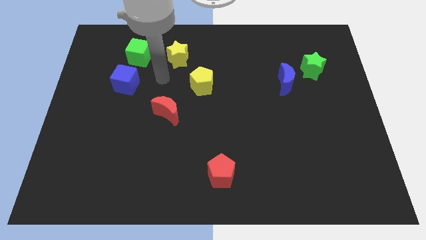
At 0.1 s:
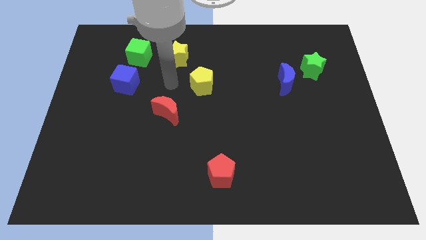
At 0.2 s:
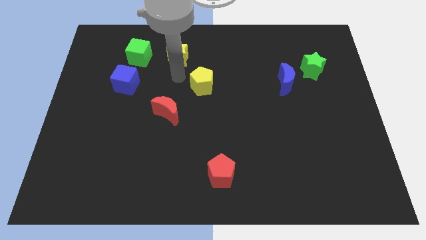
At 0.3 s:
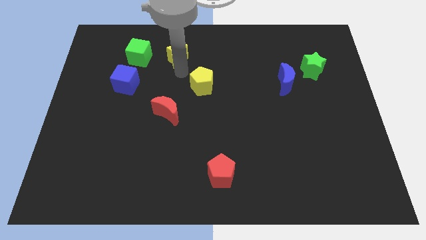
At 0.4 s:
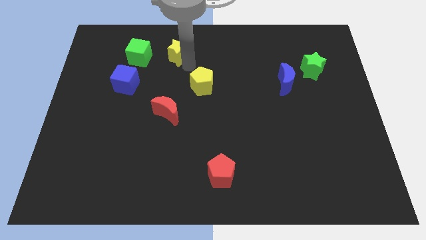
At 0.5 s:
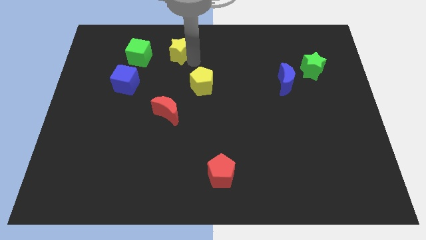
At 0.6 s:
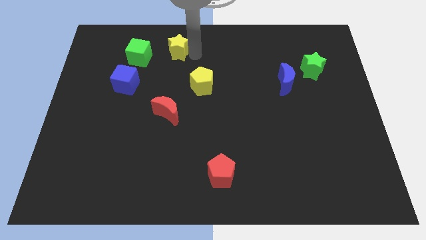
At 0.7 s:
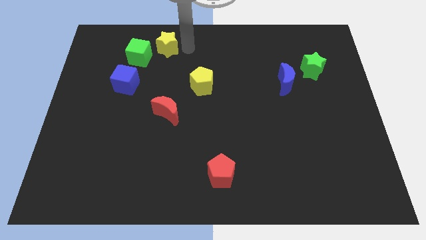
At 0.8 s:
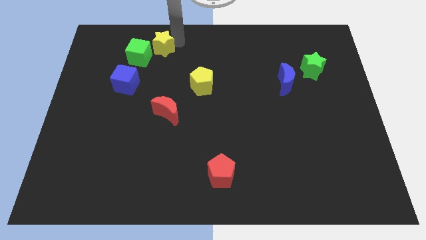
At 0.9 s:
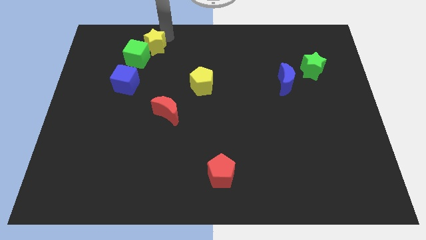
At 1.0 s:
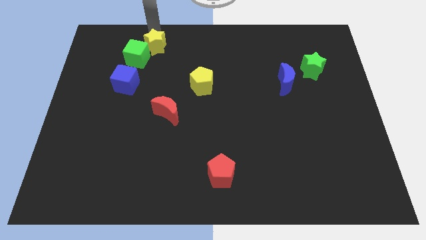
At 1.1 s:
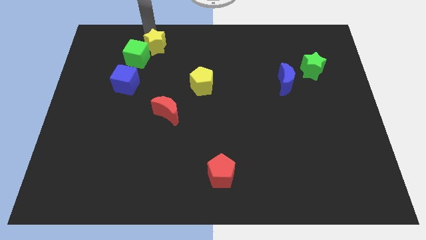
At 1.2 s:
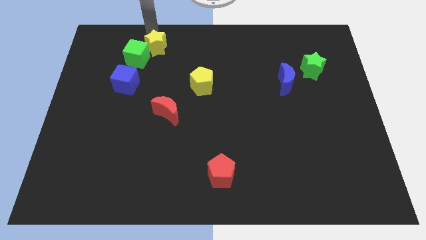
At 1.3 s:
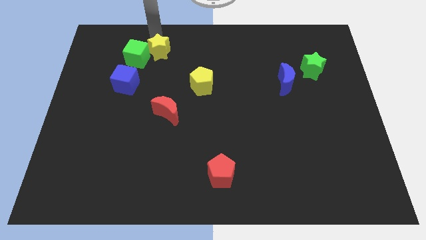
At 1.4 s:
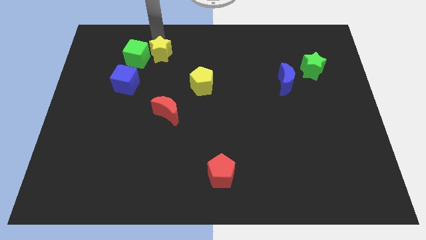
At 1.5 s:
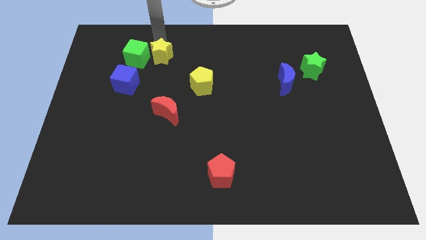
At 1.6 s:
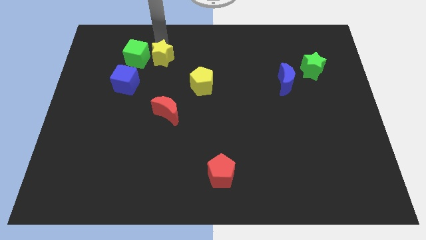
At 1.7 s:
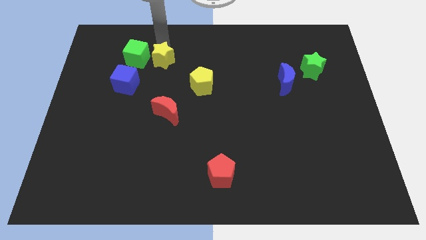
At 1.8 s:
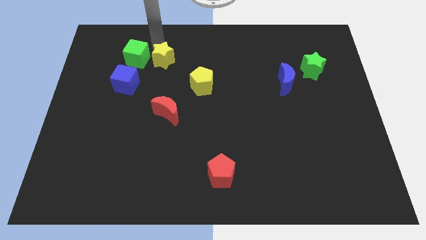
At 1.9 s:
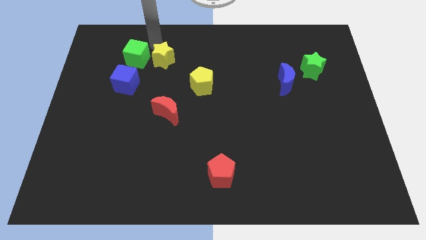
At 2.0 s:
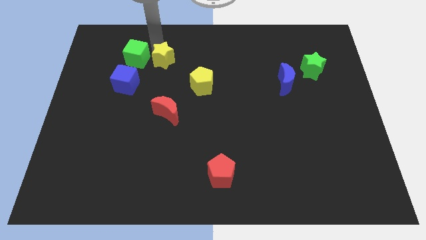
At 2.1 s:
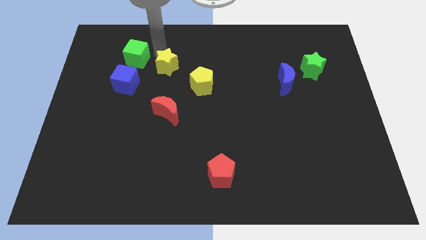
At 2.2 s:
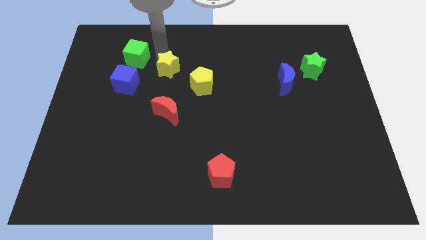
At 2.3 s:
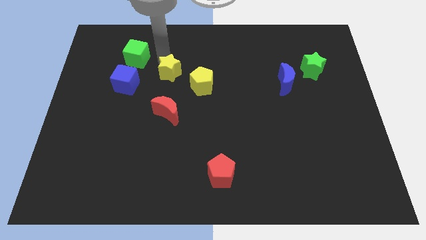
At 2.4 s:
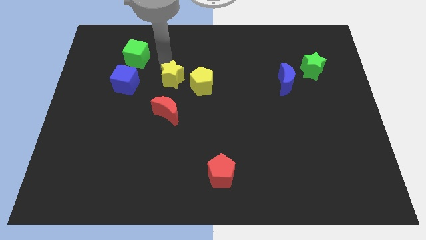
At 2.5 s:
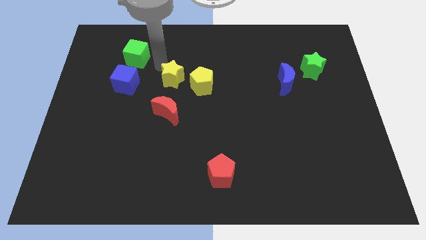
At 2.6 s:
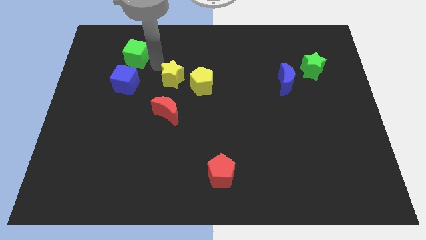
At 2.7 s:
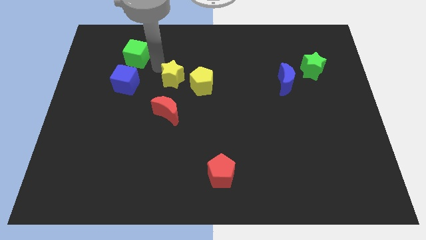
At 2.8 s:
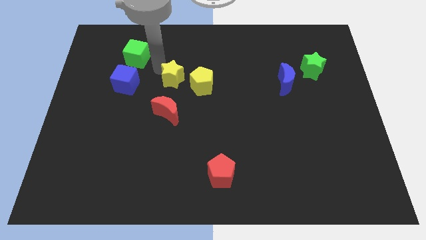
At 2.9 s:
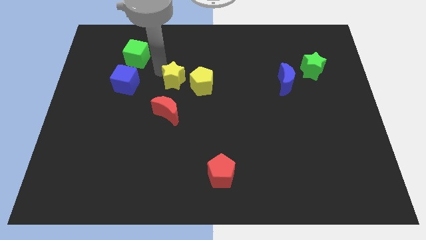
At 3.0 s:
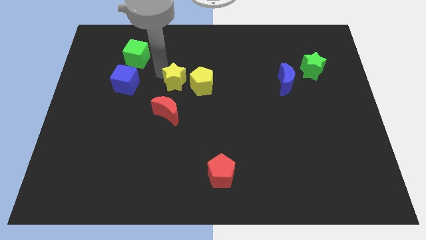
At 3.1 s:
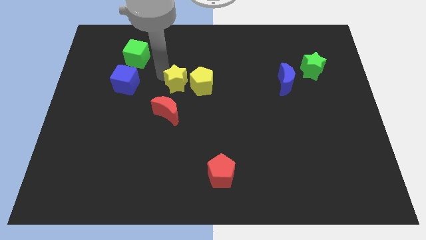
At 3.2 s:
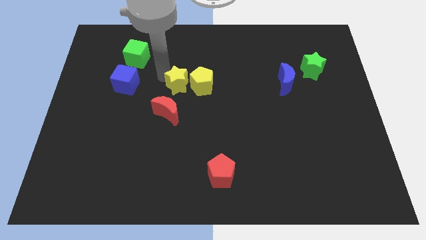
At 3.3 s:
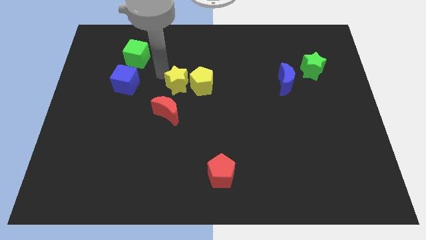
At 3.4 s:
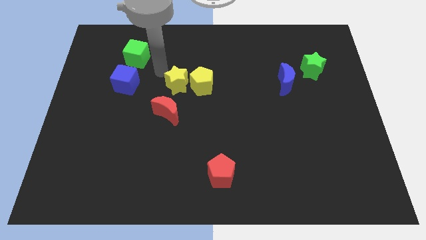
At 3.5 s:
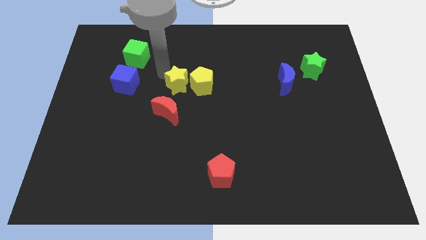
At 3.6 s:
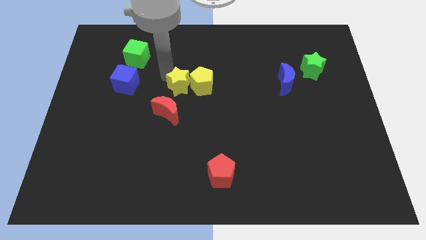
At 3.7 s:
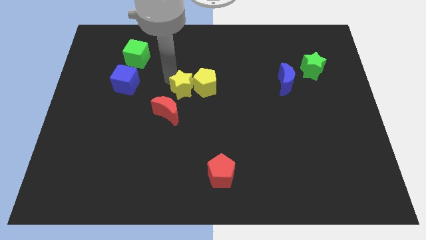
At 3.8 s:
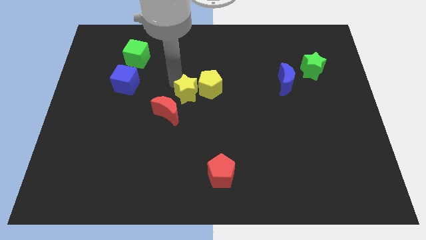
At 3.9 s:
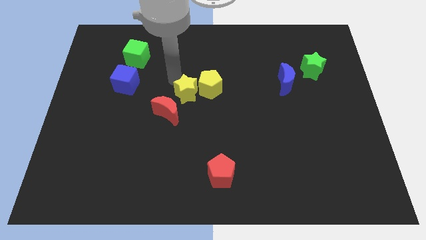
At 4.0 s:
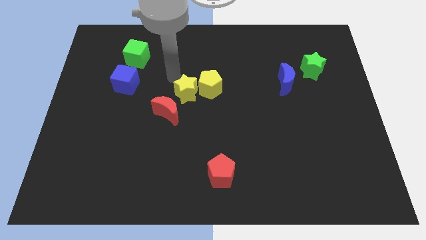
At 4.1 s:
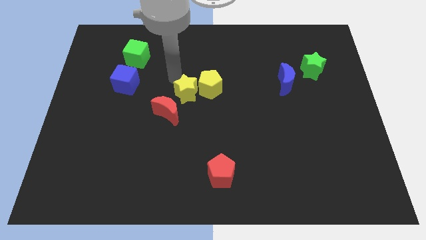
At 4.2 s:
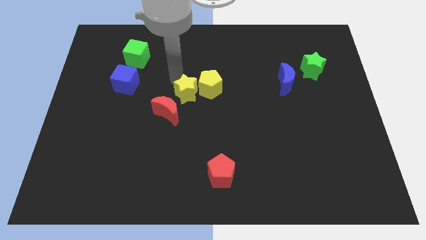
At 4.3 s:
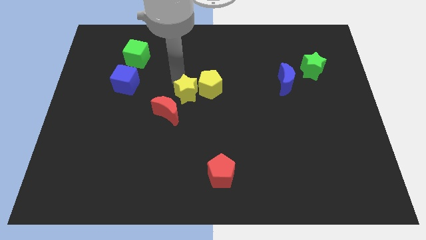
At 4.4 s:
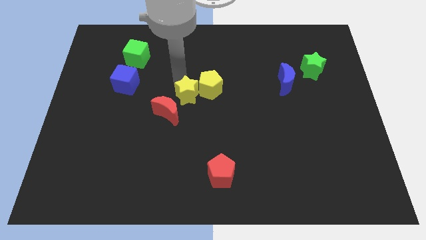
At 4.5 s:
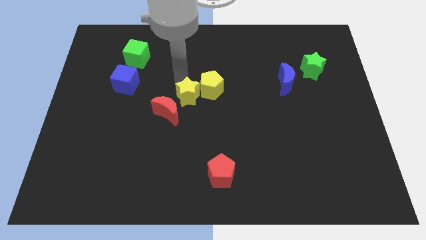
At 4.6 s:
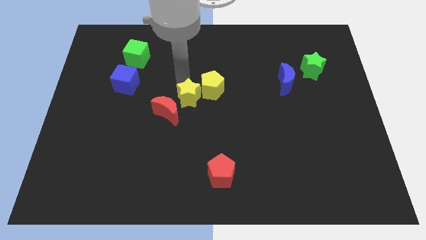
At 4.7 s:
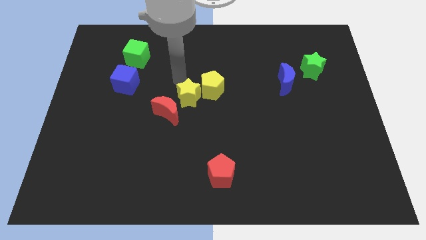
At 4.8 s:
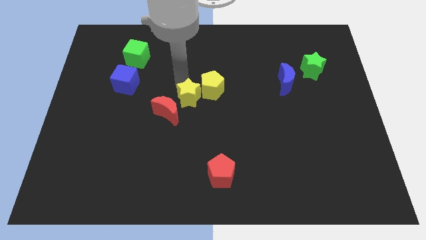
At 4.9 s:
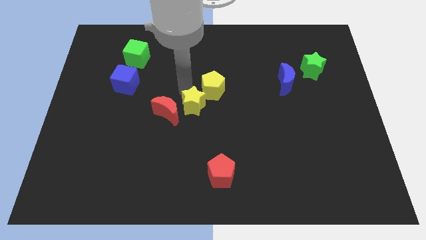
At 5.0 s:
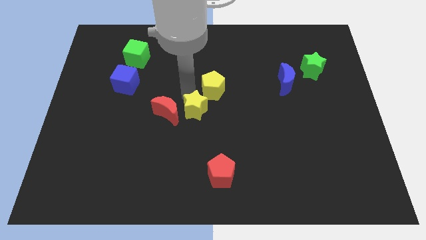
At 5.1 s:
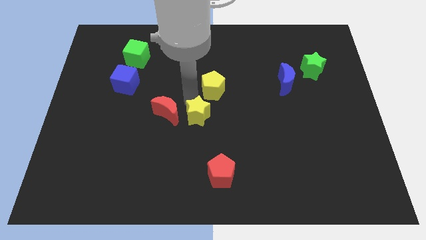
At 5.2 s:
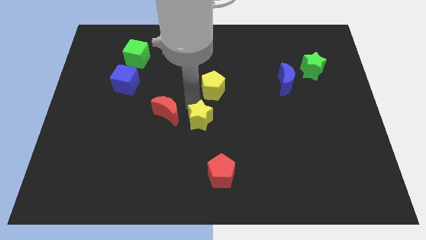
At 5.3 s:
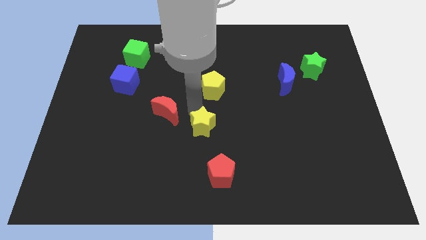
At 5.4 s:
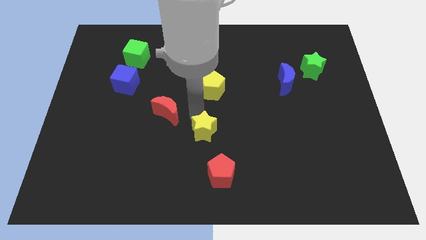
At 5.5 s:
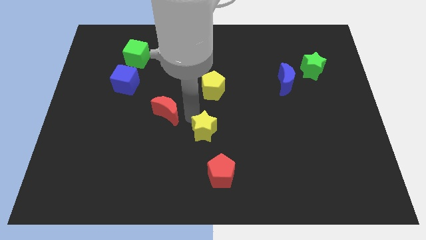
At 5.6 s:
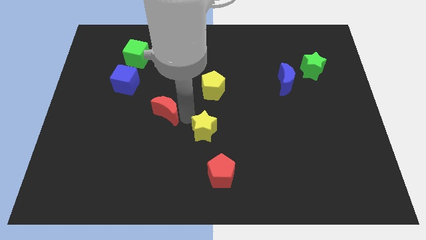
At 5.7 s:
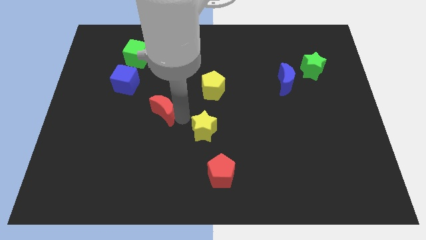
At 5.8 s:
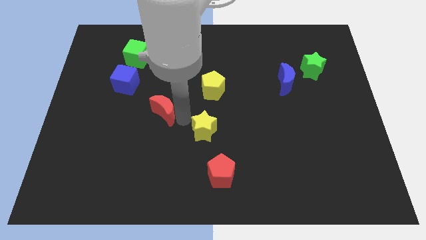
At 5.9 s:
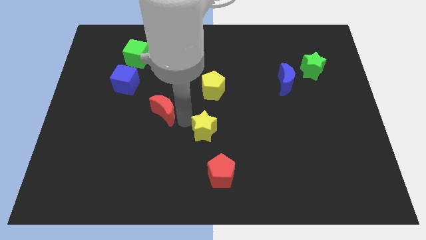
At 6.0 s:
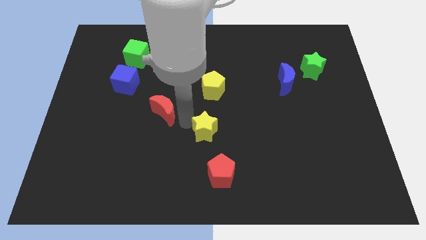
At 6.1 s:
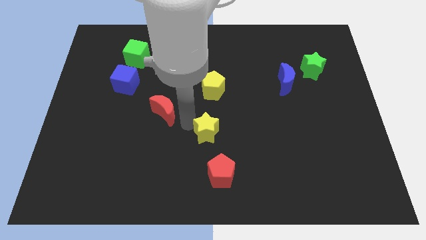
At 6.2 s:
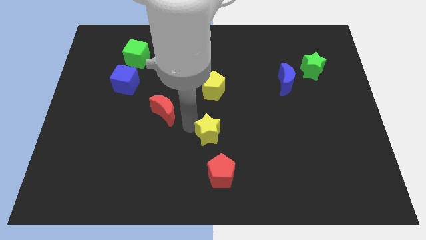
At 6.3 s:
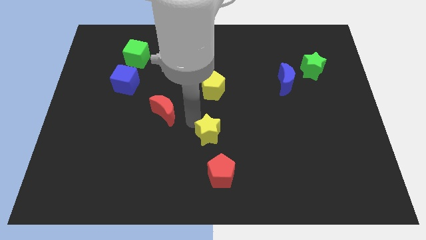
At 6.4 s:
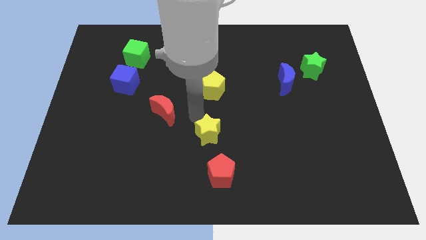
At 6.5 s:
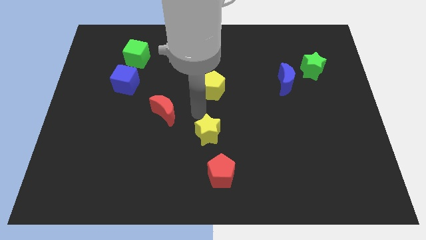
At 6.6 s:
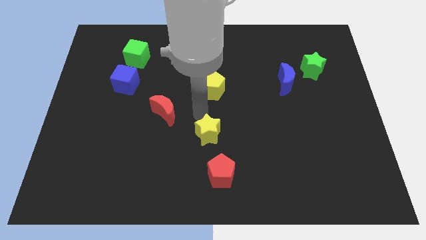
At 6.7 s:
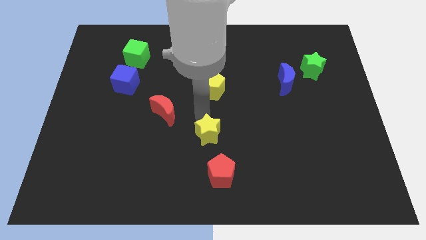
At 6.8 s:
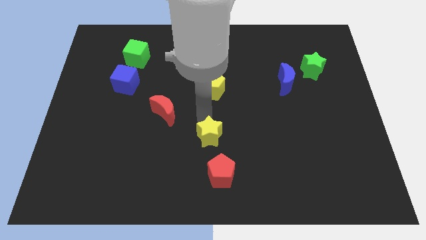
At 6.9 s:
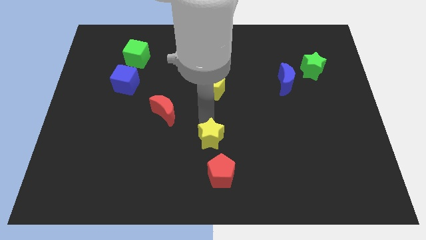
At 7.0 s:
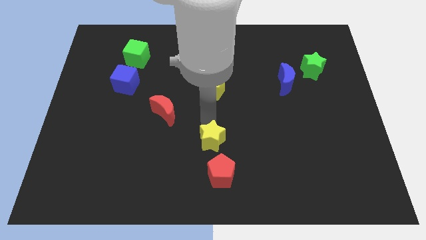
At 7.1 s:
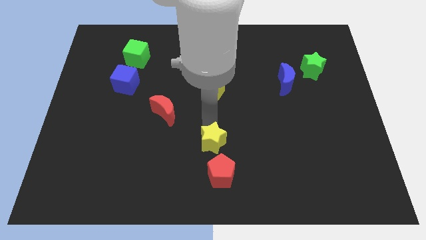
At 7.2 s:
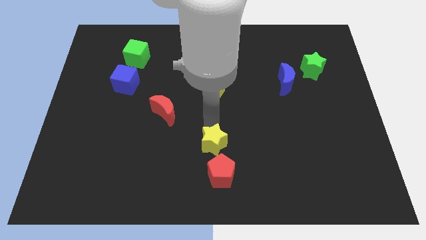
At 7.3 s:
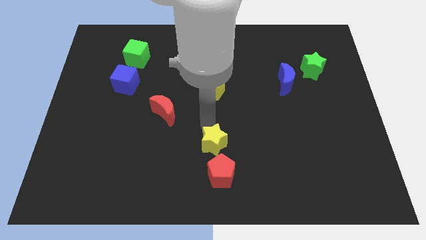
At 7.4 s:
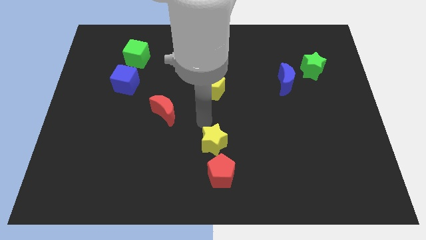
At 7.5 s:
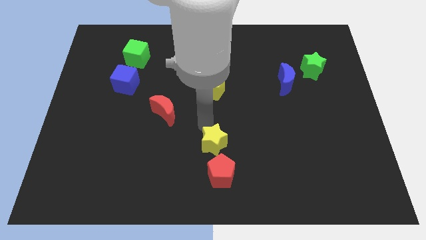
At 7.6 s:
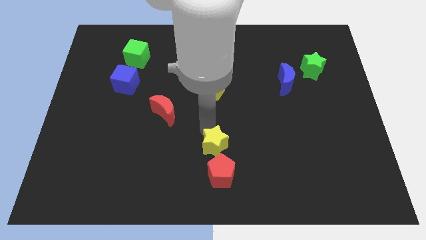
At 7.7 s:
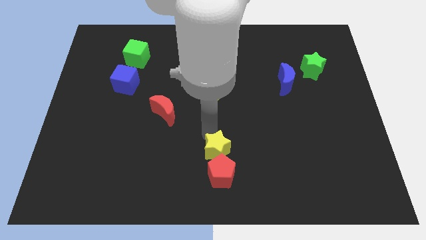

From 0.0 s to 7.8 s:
put the yellow star to the red pentagon
